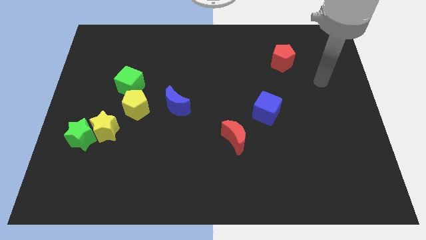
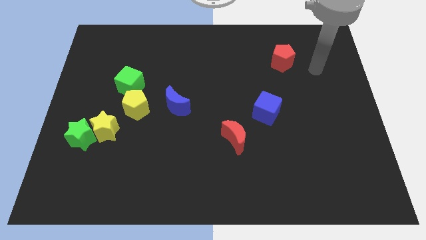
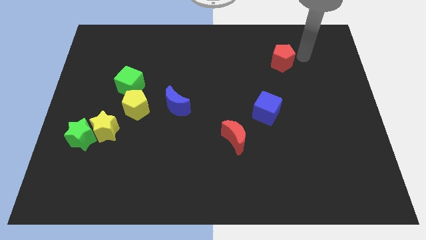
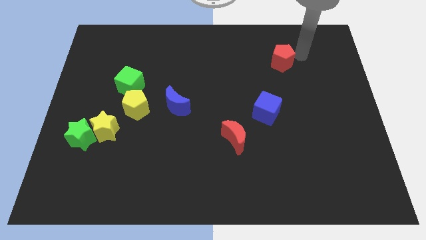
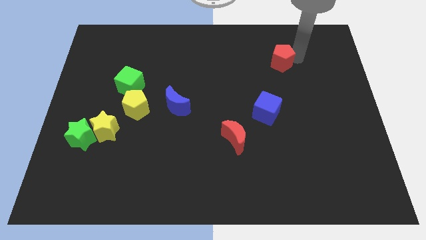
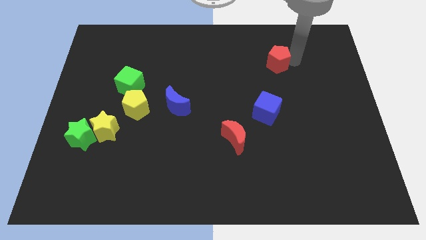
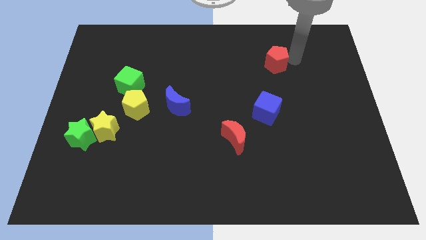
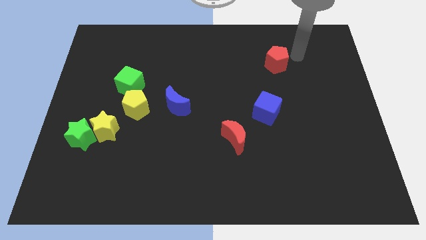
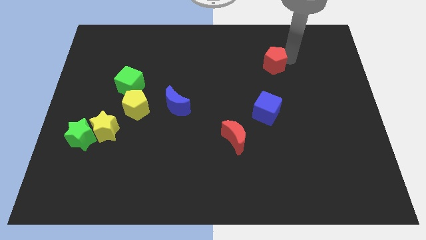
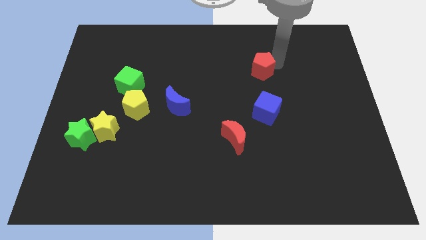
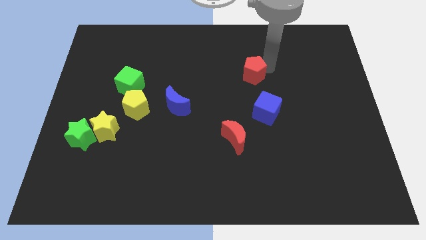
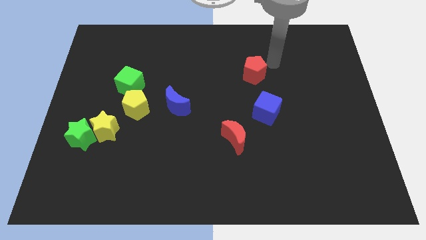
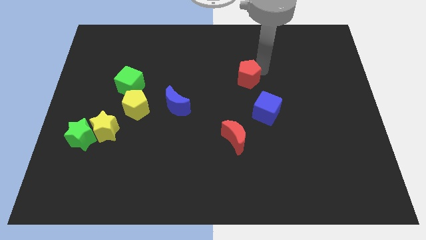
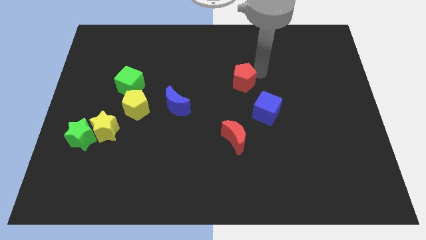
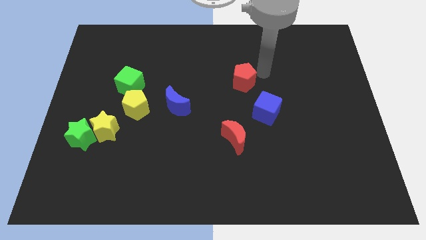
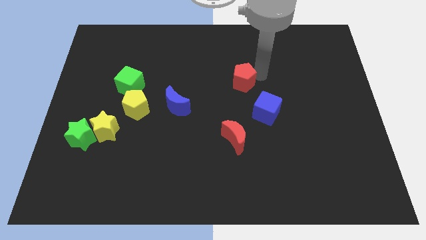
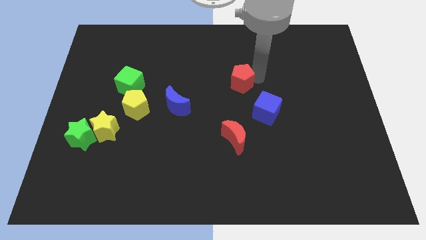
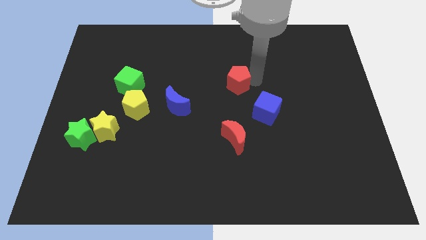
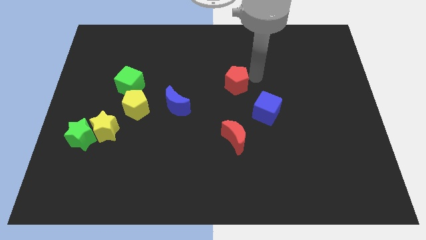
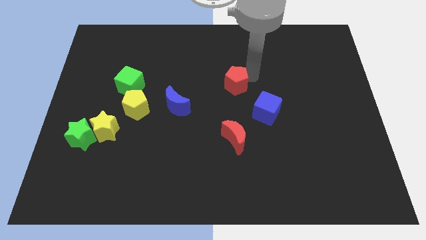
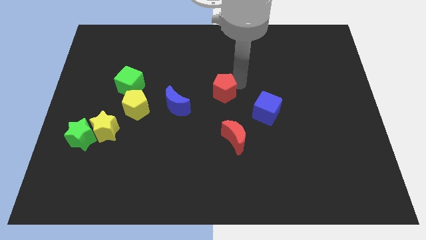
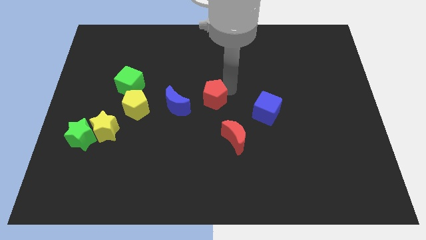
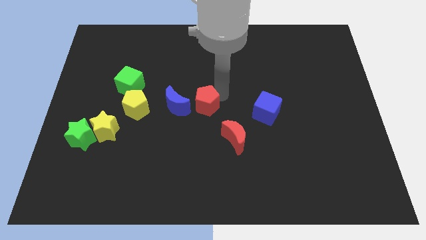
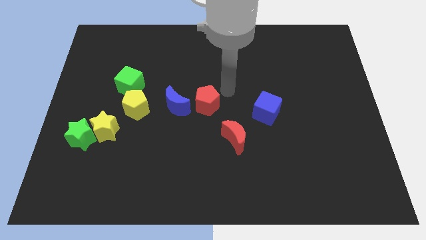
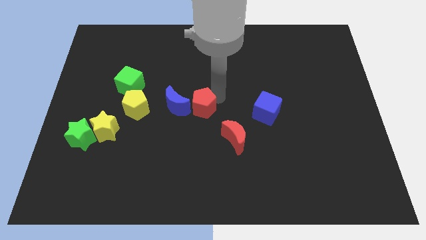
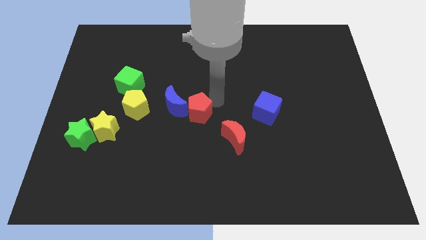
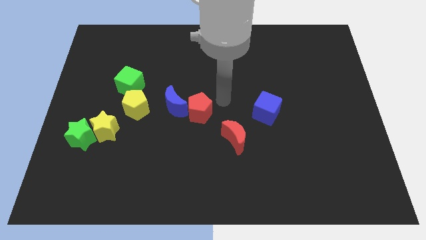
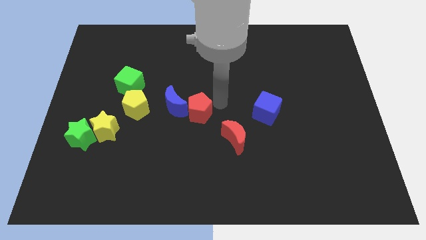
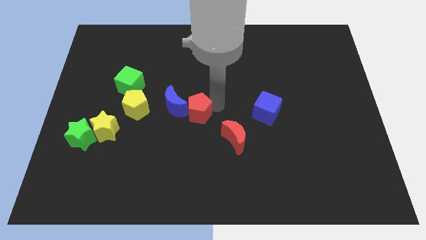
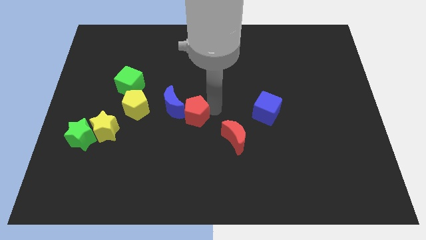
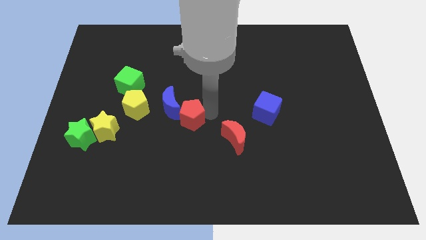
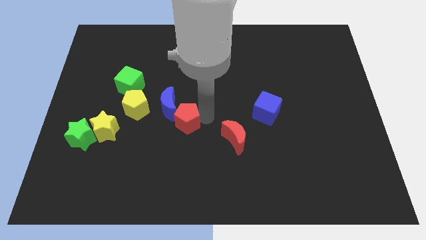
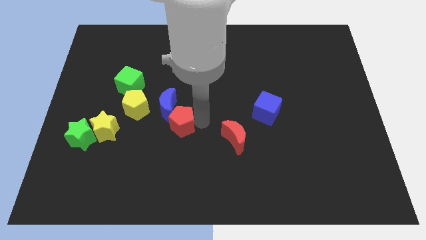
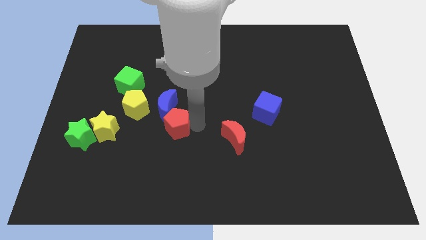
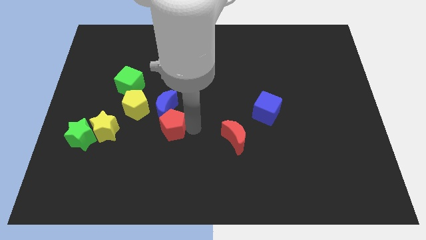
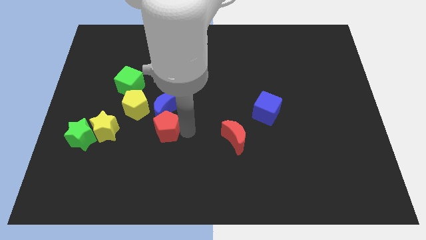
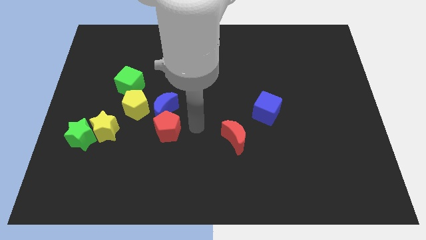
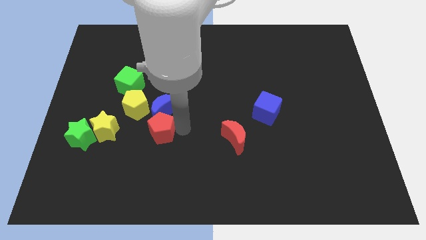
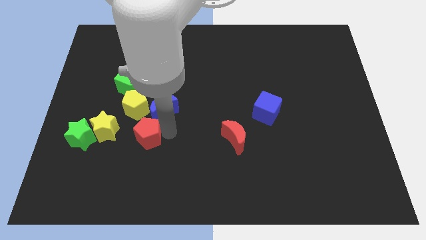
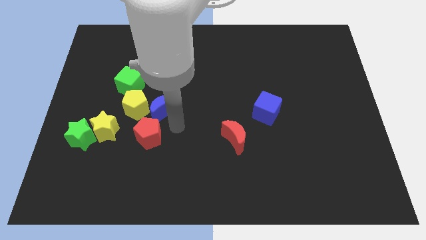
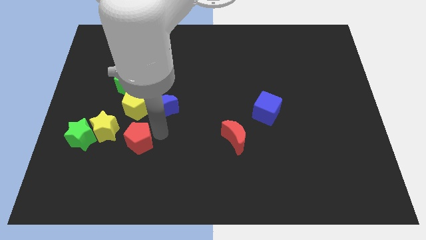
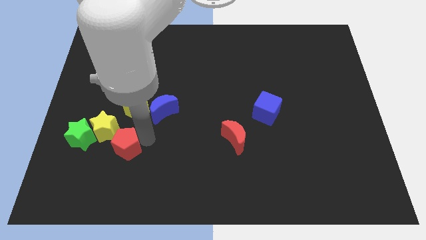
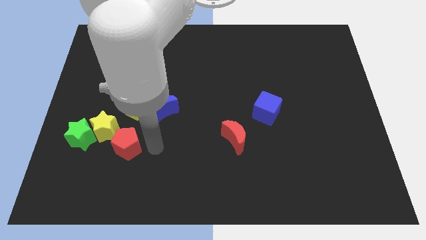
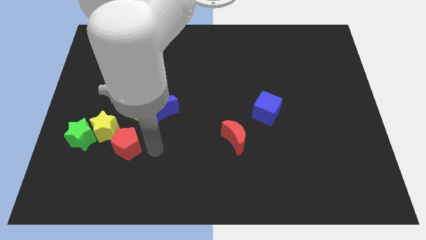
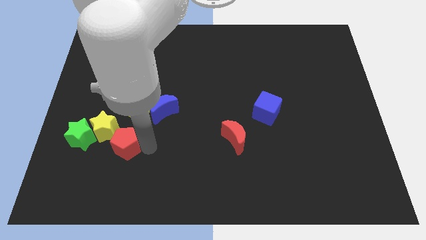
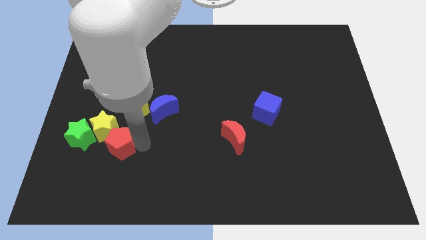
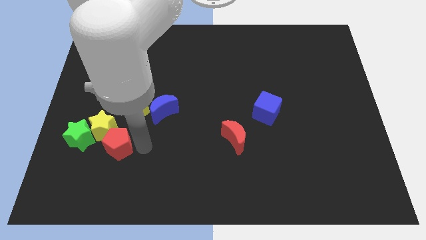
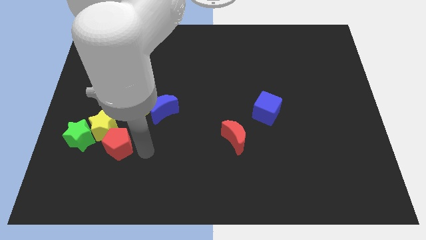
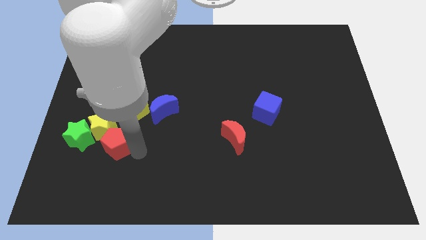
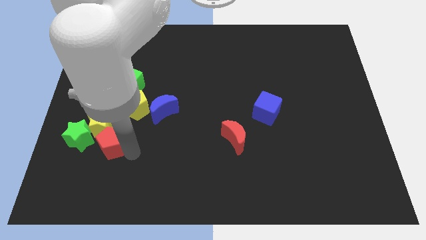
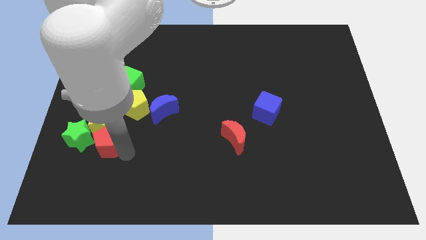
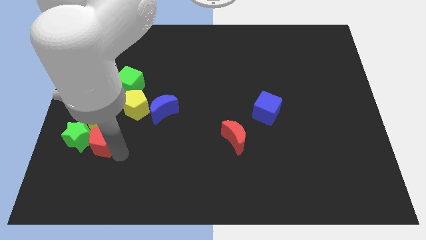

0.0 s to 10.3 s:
slide the red pentagon next to the green star
